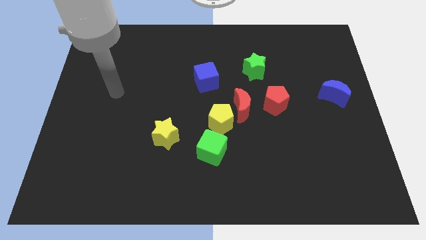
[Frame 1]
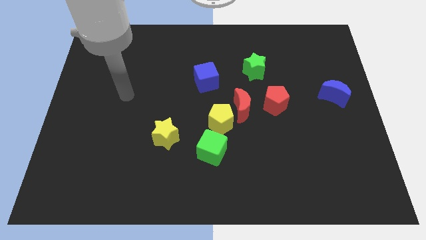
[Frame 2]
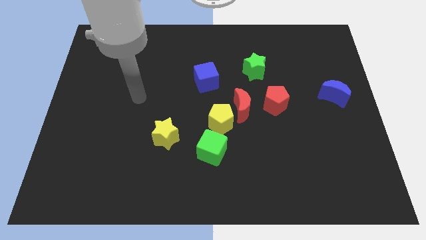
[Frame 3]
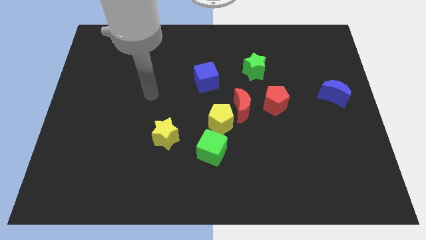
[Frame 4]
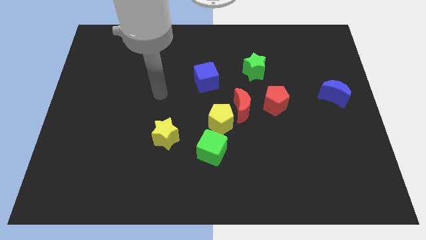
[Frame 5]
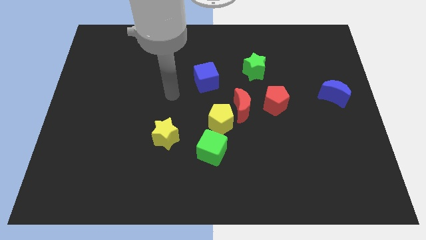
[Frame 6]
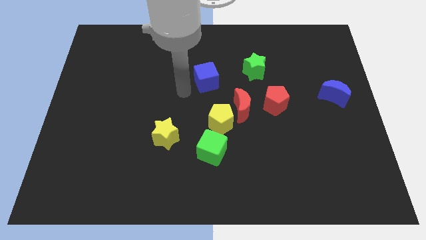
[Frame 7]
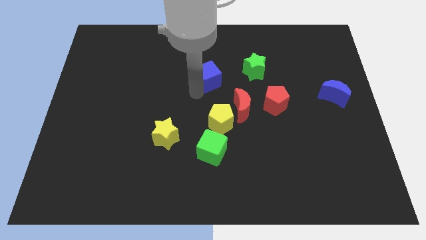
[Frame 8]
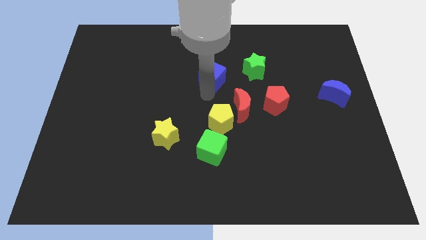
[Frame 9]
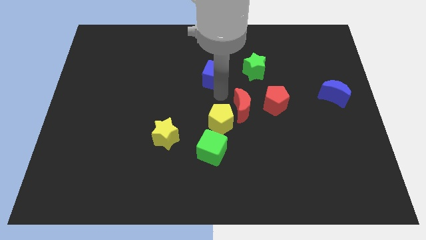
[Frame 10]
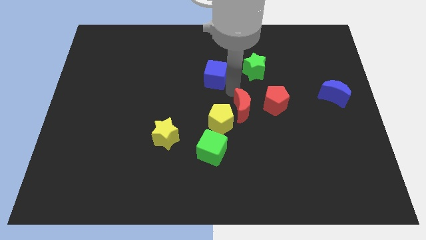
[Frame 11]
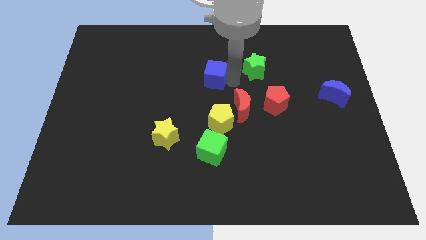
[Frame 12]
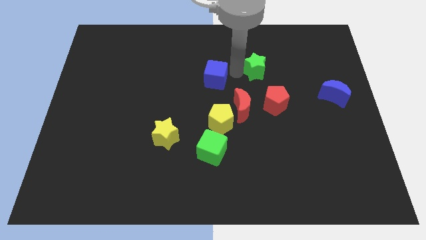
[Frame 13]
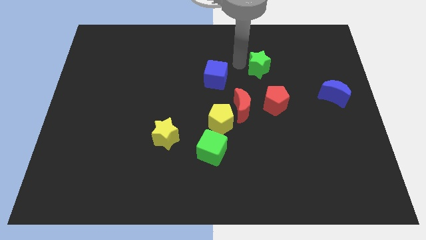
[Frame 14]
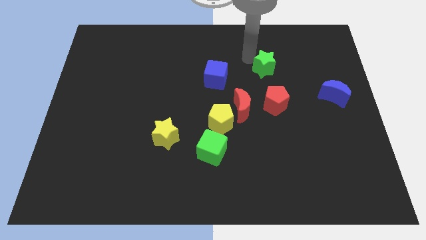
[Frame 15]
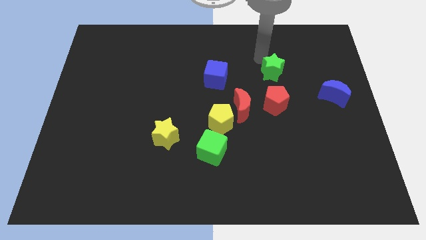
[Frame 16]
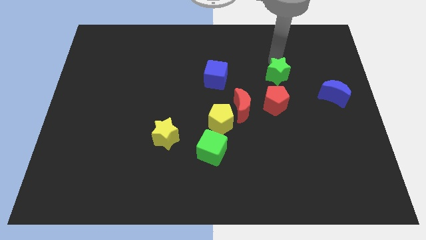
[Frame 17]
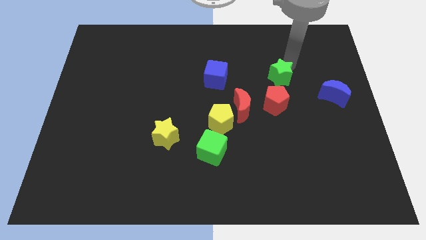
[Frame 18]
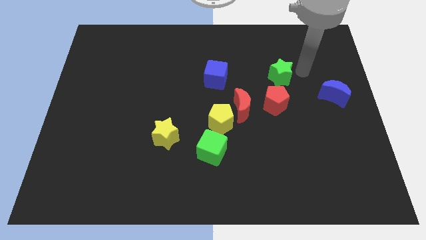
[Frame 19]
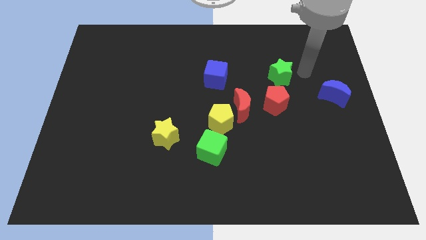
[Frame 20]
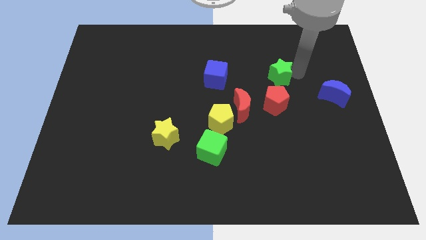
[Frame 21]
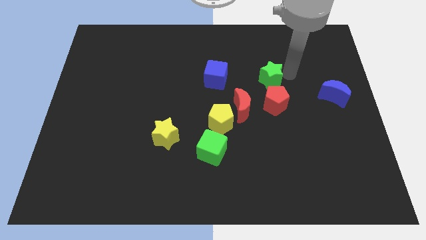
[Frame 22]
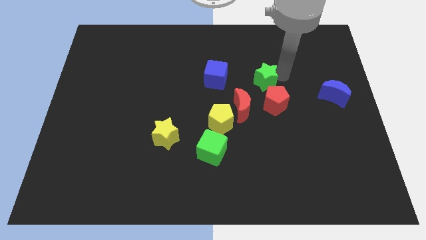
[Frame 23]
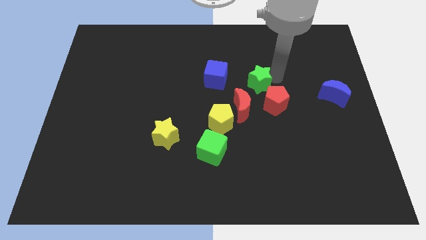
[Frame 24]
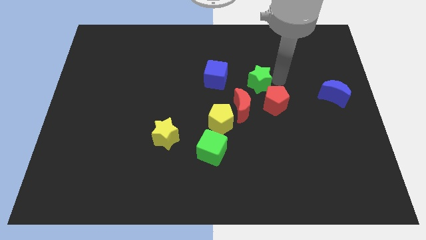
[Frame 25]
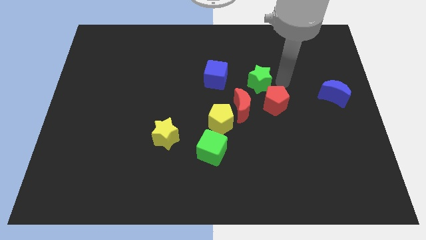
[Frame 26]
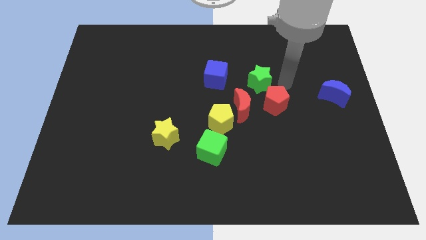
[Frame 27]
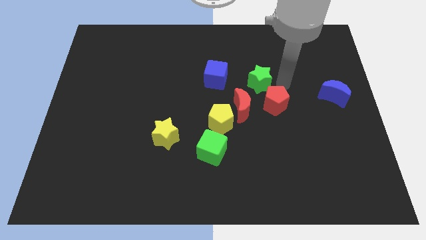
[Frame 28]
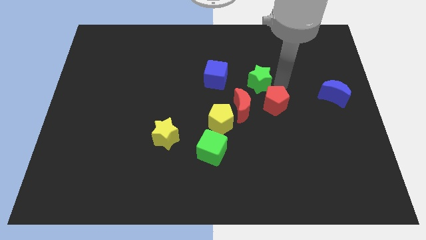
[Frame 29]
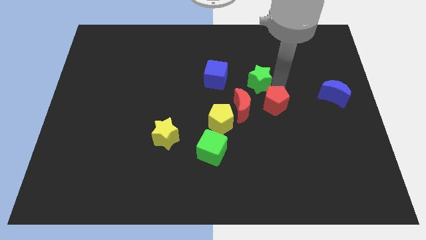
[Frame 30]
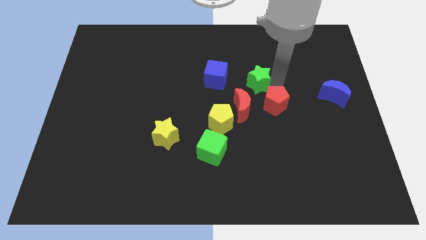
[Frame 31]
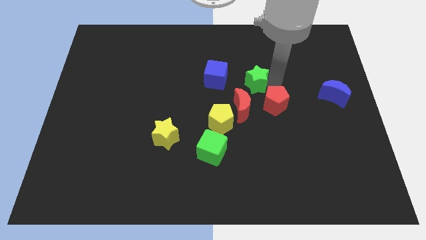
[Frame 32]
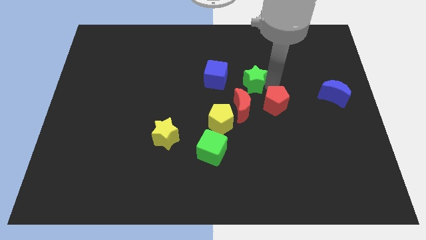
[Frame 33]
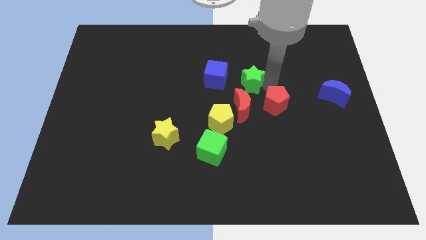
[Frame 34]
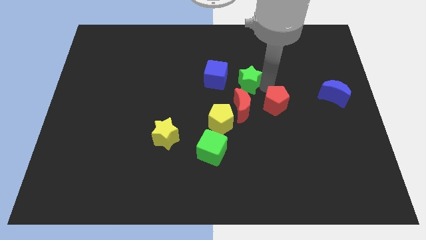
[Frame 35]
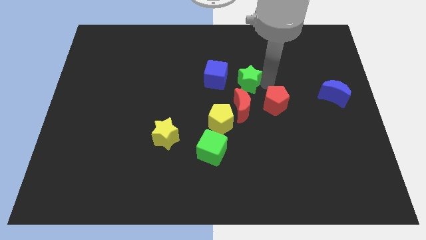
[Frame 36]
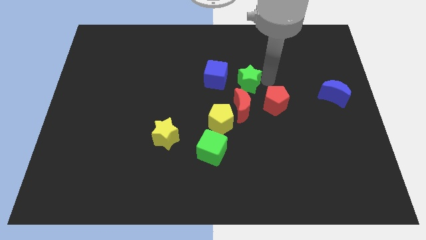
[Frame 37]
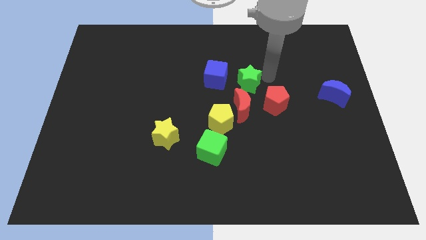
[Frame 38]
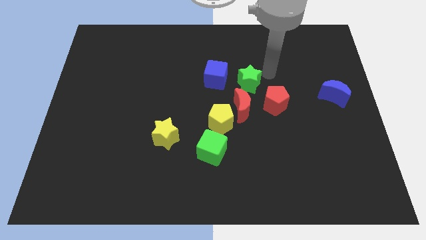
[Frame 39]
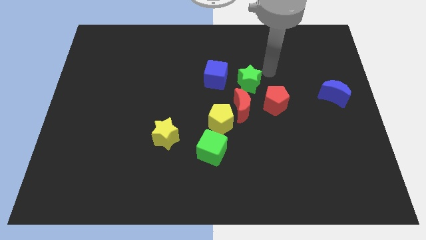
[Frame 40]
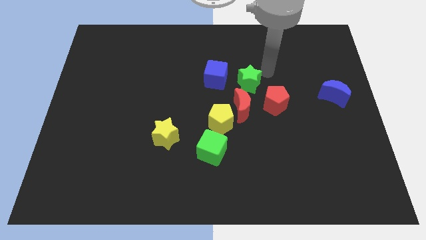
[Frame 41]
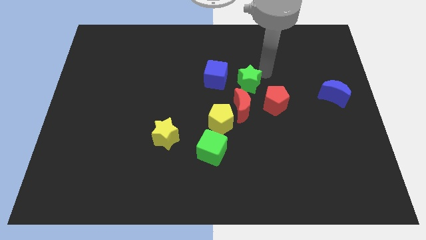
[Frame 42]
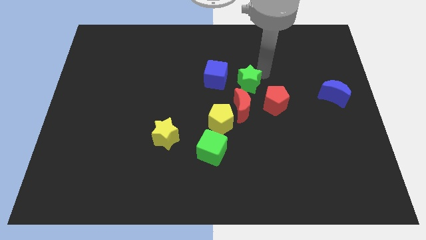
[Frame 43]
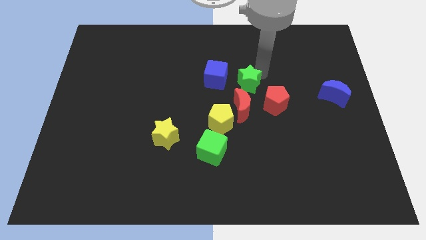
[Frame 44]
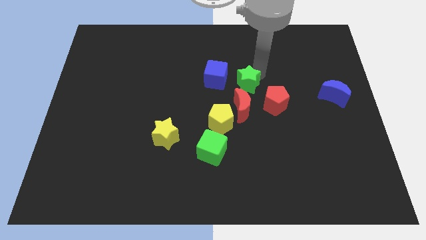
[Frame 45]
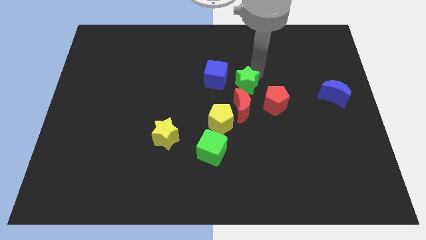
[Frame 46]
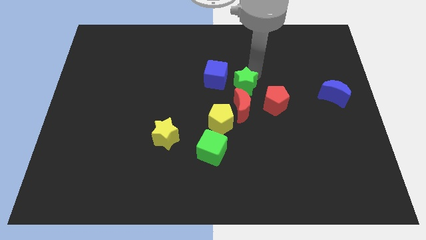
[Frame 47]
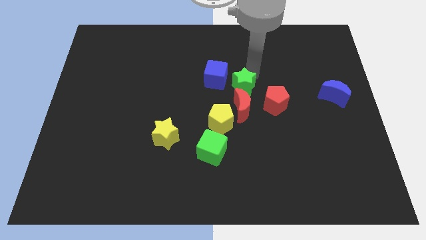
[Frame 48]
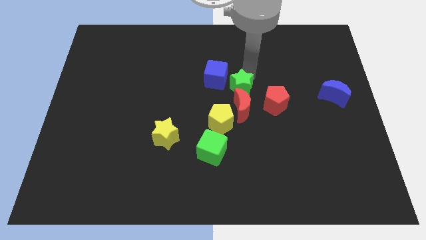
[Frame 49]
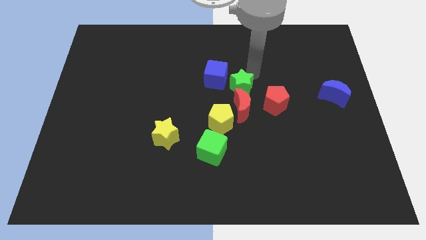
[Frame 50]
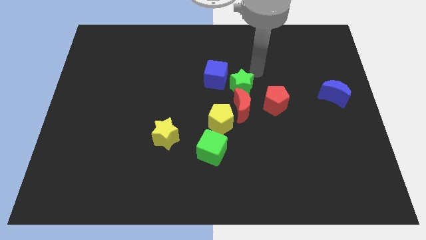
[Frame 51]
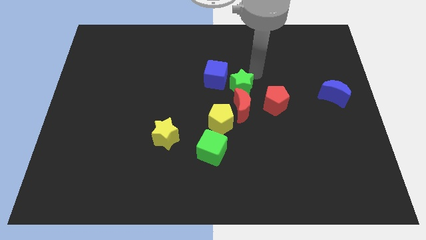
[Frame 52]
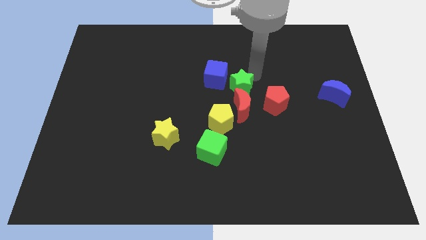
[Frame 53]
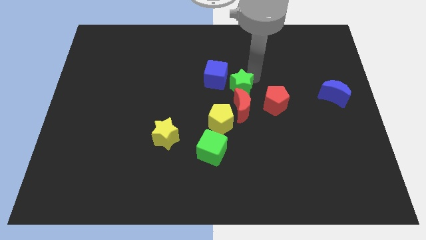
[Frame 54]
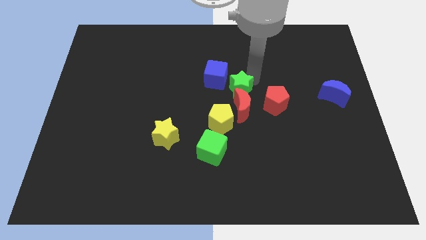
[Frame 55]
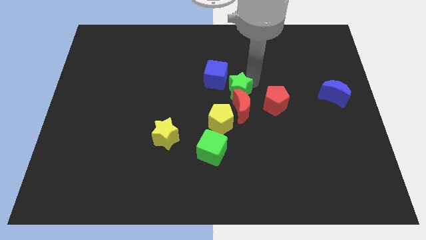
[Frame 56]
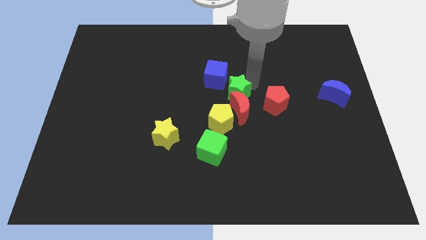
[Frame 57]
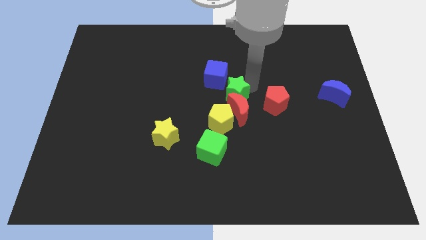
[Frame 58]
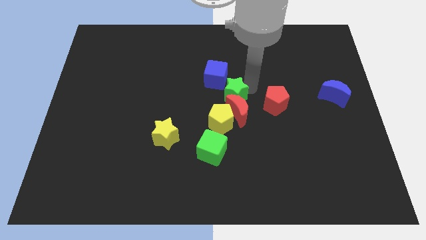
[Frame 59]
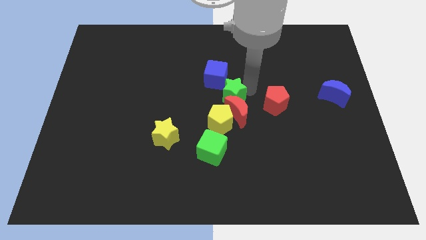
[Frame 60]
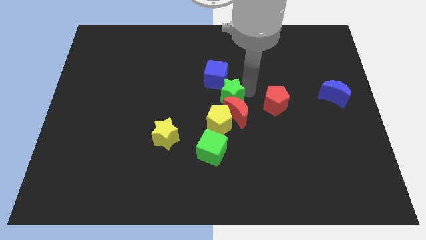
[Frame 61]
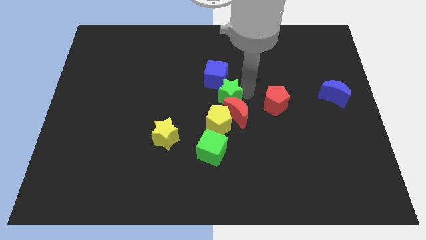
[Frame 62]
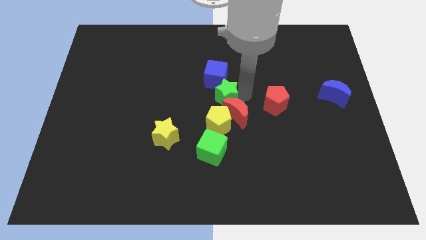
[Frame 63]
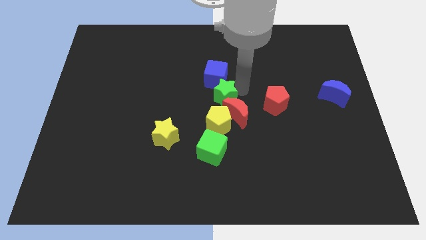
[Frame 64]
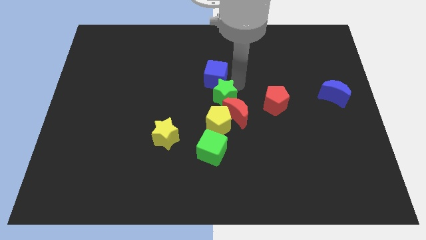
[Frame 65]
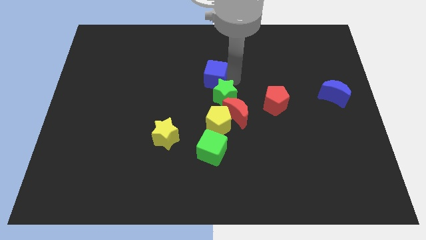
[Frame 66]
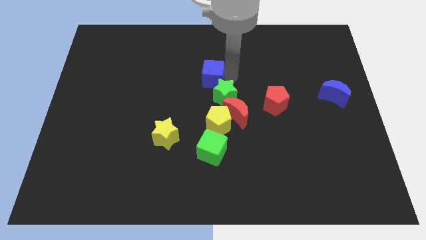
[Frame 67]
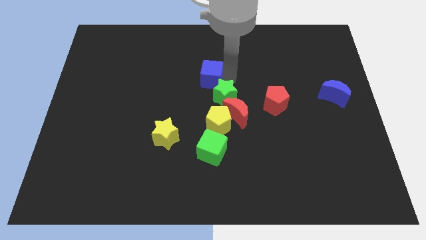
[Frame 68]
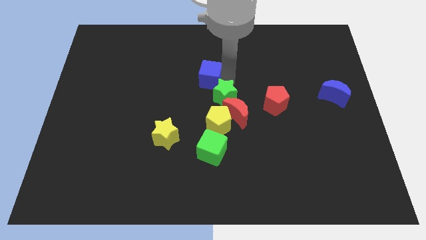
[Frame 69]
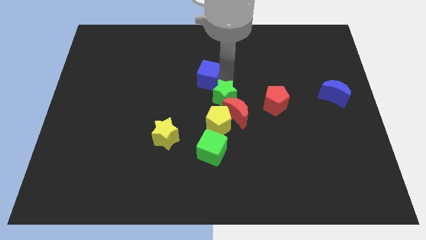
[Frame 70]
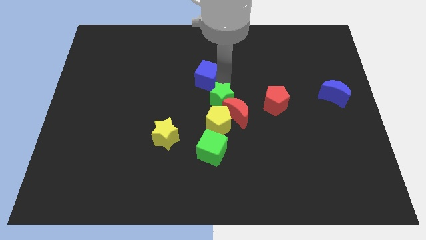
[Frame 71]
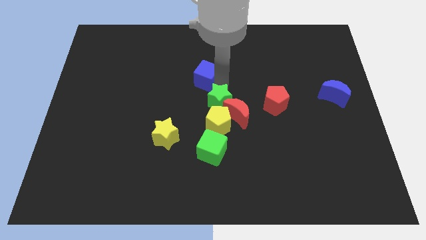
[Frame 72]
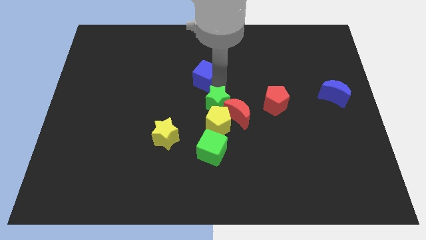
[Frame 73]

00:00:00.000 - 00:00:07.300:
slide the green star to the yellow pentagon
